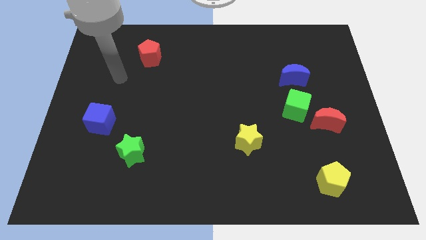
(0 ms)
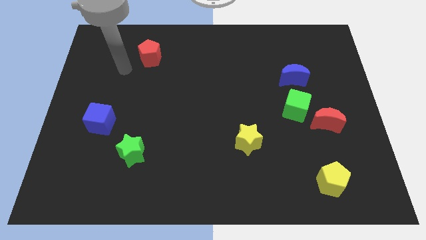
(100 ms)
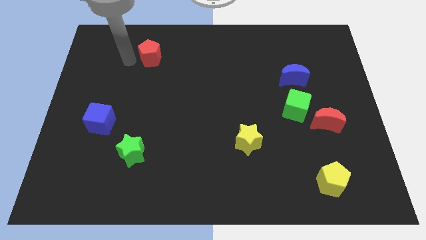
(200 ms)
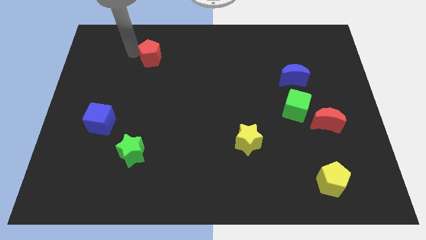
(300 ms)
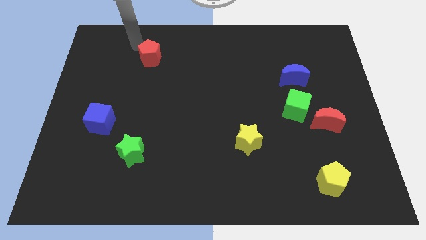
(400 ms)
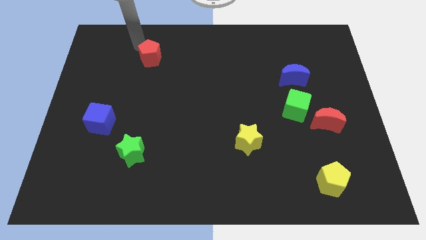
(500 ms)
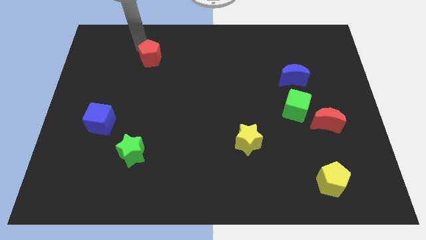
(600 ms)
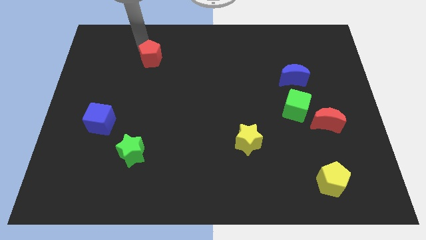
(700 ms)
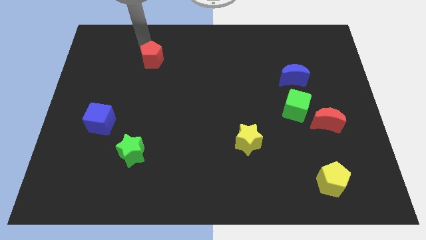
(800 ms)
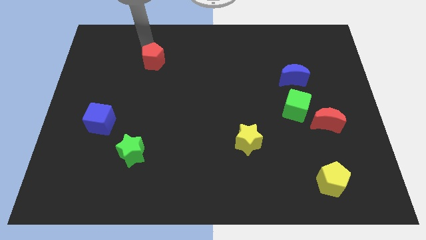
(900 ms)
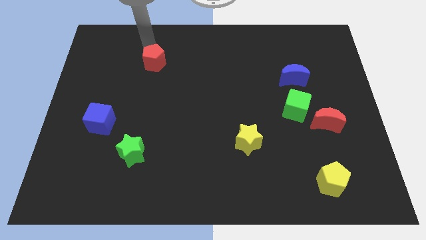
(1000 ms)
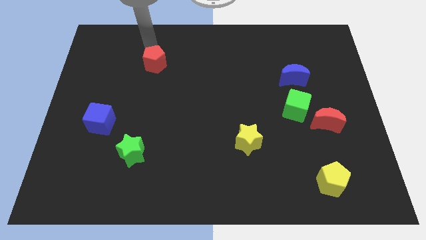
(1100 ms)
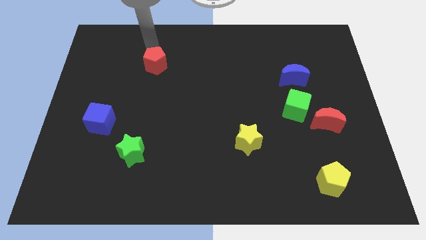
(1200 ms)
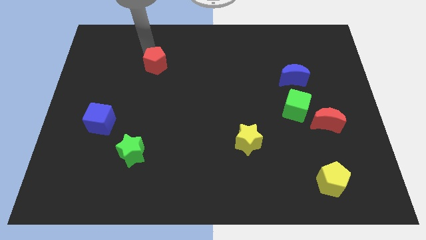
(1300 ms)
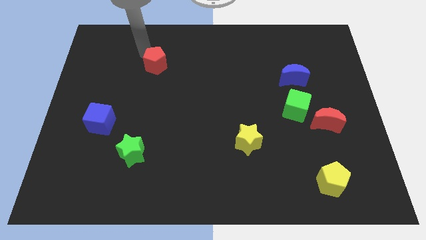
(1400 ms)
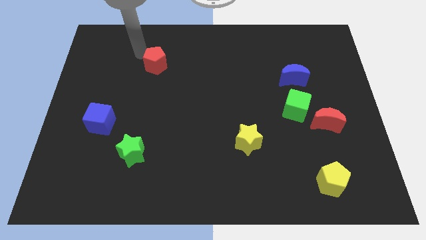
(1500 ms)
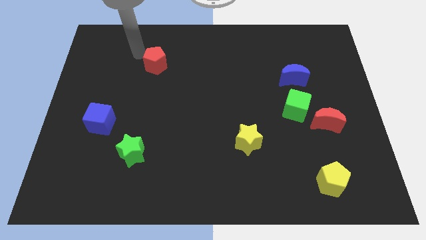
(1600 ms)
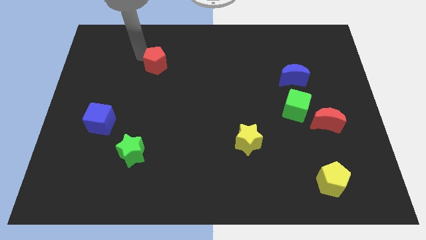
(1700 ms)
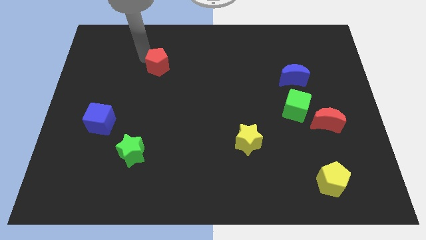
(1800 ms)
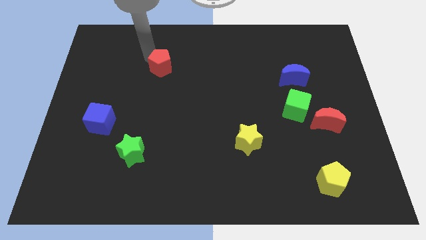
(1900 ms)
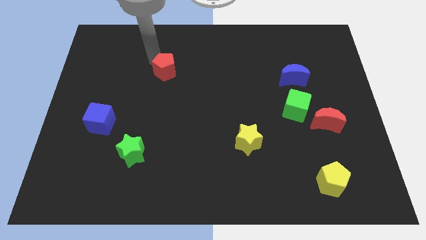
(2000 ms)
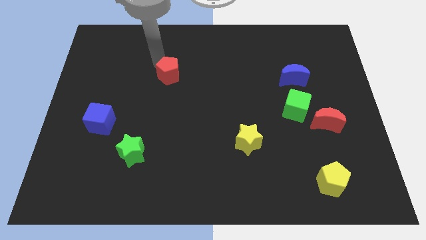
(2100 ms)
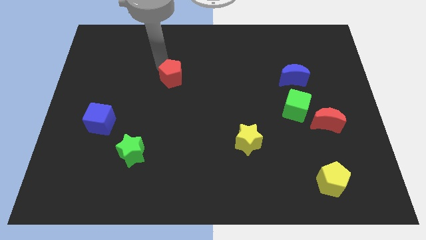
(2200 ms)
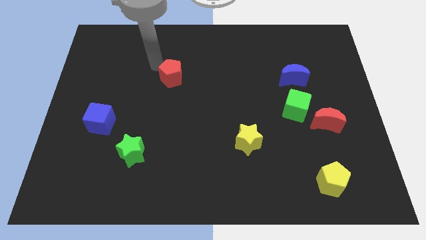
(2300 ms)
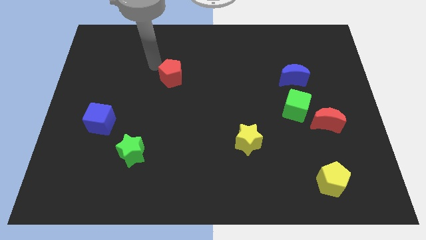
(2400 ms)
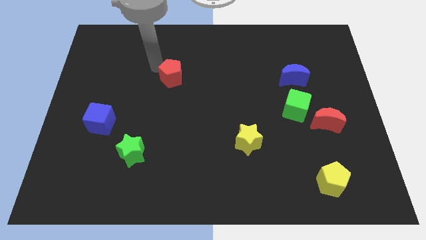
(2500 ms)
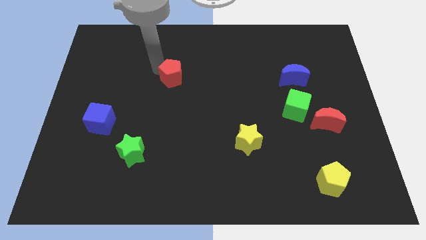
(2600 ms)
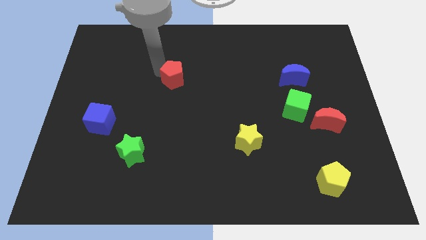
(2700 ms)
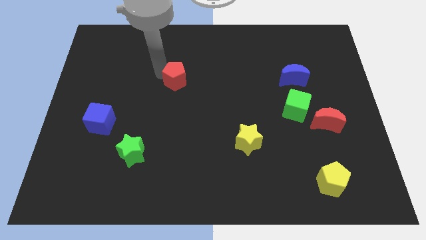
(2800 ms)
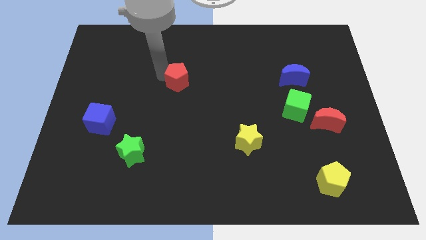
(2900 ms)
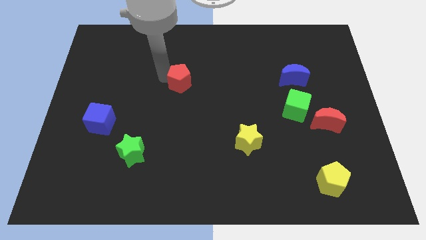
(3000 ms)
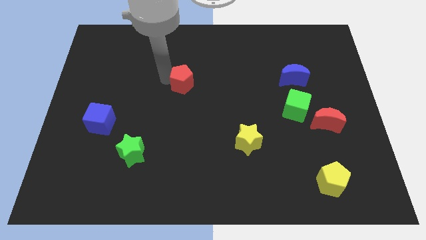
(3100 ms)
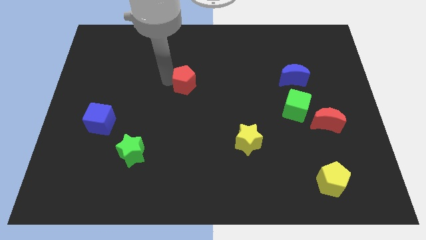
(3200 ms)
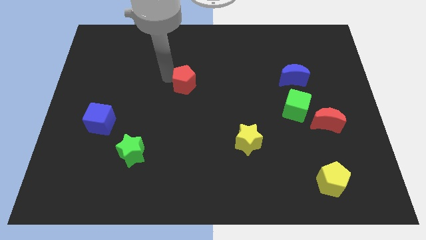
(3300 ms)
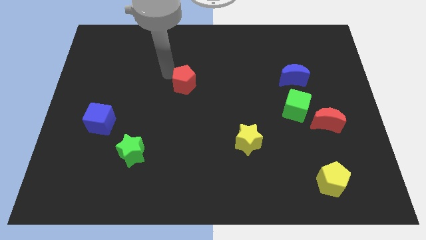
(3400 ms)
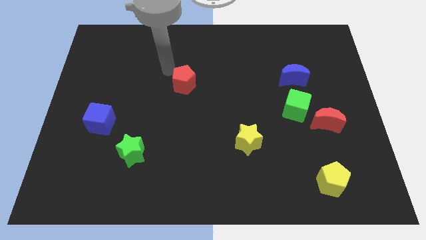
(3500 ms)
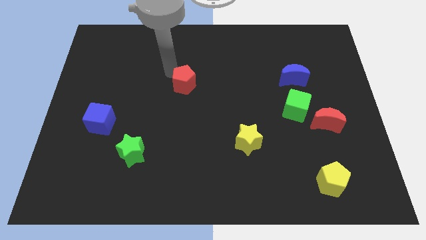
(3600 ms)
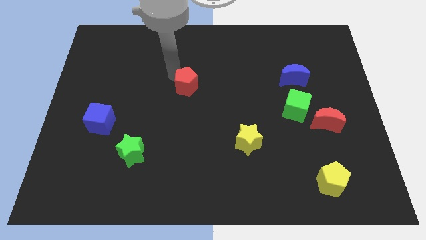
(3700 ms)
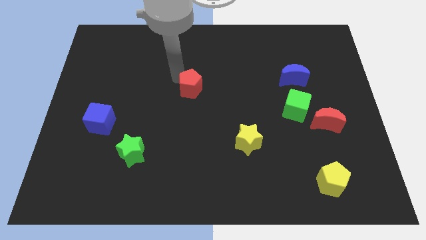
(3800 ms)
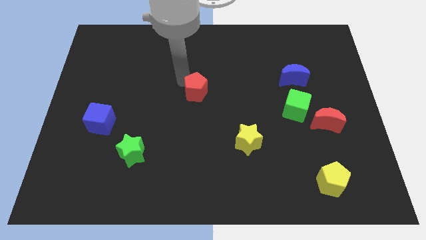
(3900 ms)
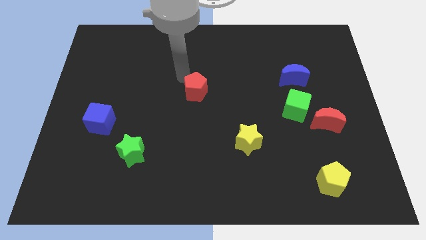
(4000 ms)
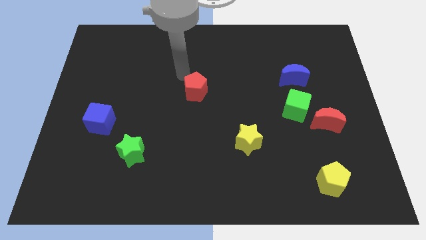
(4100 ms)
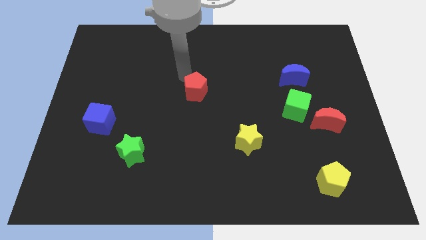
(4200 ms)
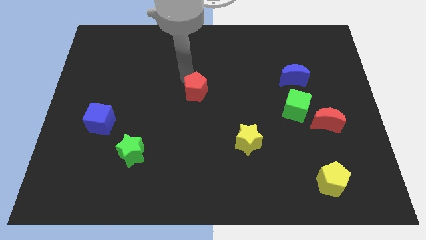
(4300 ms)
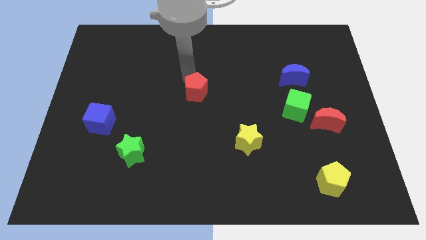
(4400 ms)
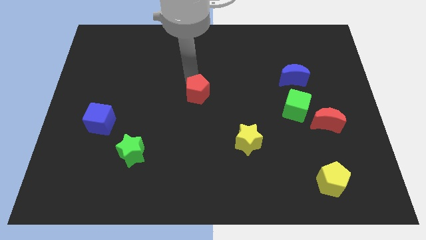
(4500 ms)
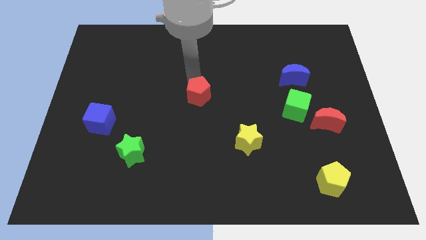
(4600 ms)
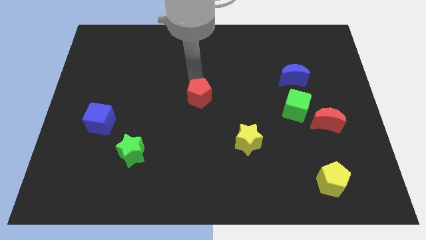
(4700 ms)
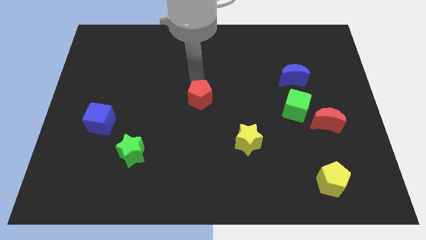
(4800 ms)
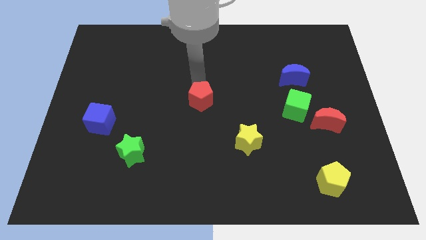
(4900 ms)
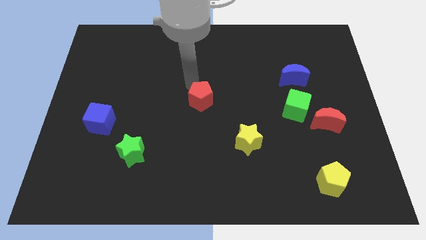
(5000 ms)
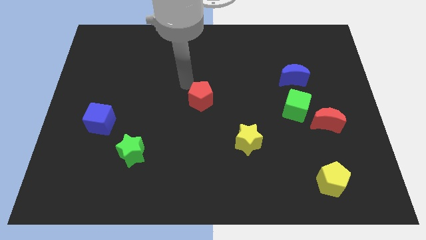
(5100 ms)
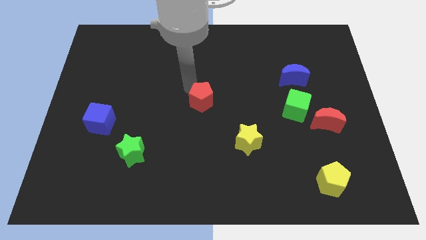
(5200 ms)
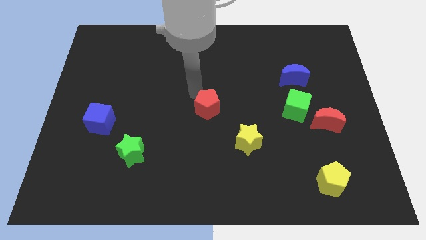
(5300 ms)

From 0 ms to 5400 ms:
put the red pentagon to the top left of the yellow star

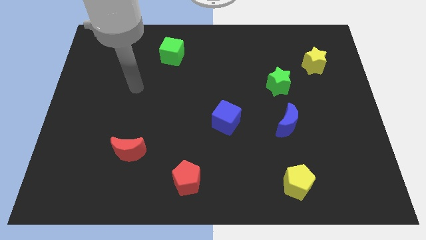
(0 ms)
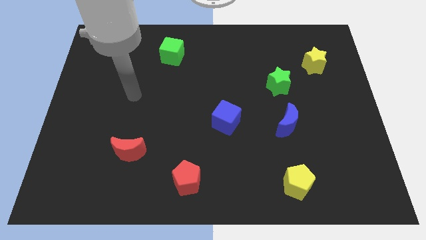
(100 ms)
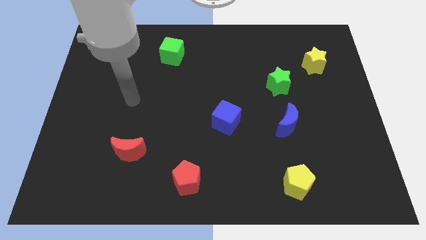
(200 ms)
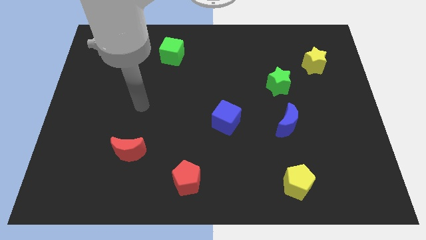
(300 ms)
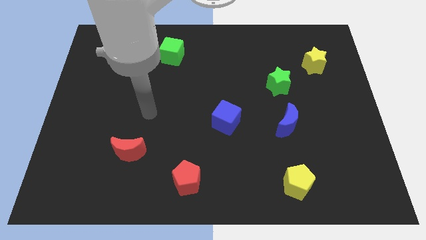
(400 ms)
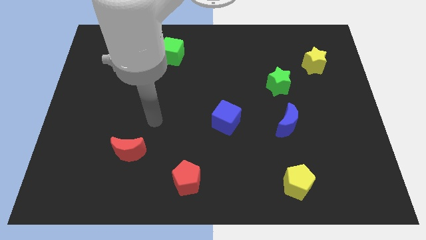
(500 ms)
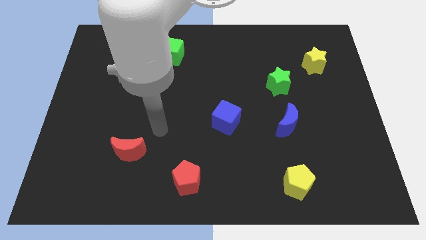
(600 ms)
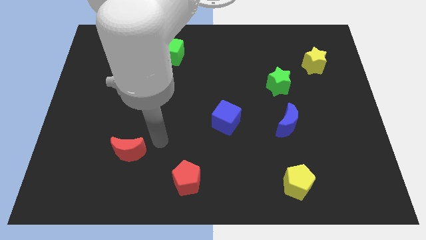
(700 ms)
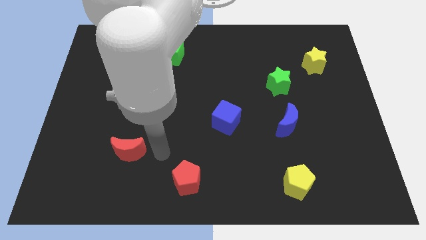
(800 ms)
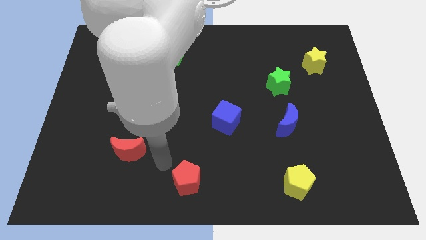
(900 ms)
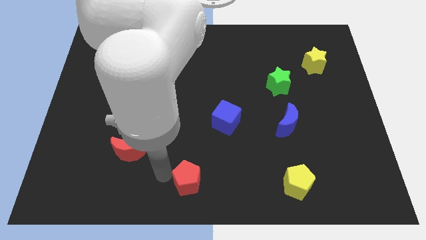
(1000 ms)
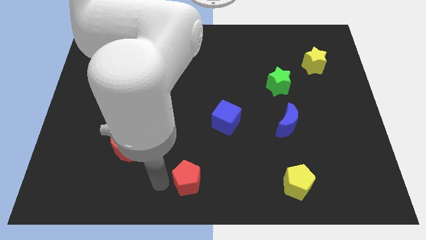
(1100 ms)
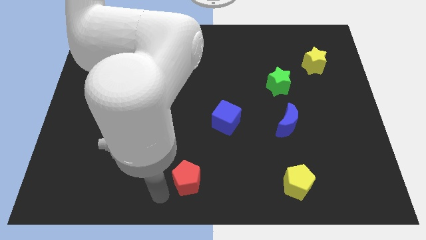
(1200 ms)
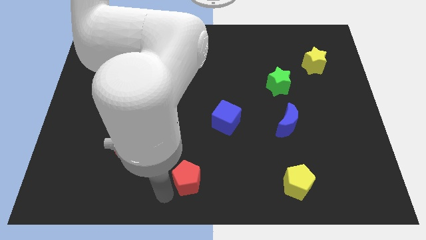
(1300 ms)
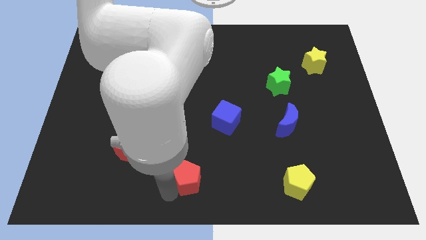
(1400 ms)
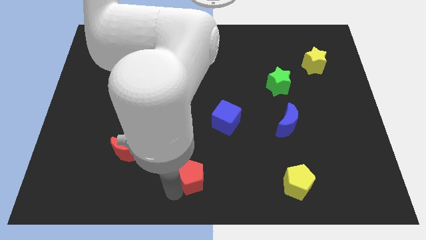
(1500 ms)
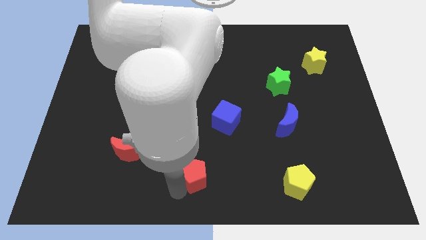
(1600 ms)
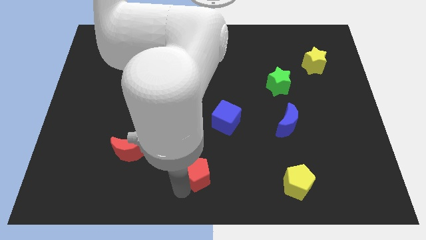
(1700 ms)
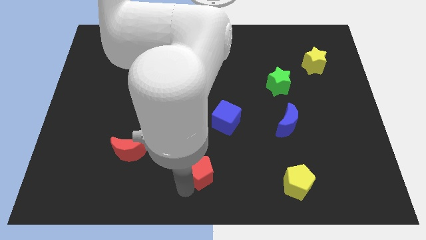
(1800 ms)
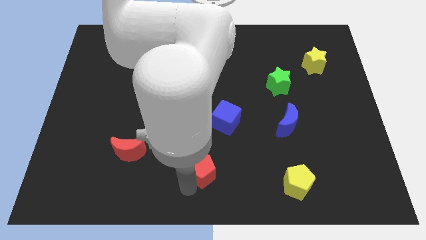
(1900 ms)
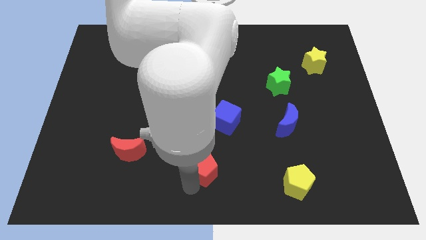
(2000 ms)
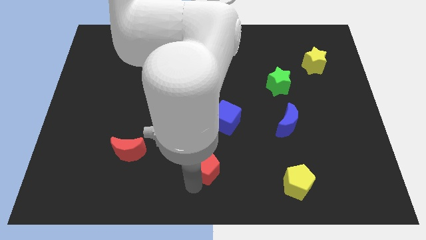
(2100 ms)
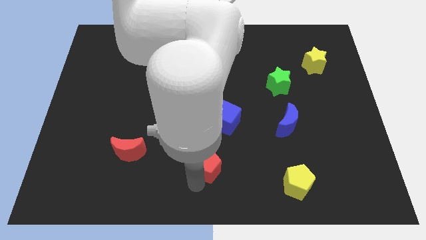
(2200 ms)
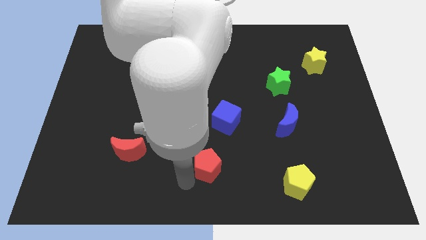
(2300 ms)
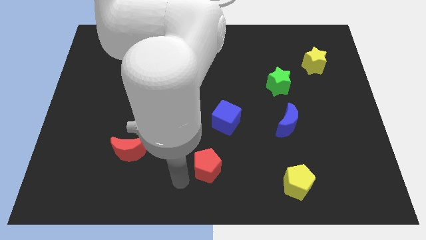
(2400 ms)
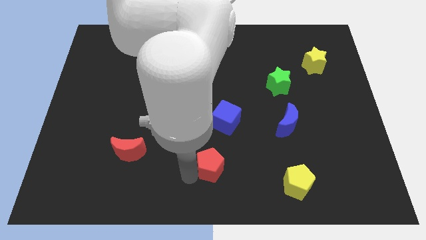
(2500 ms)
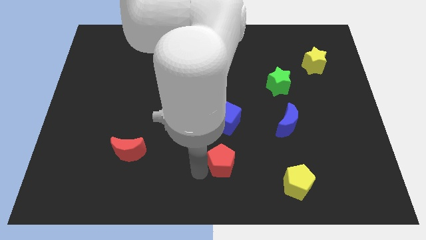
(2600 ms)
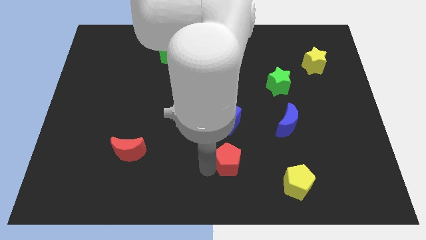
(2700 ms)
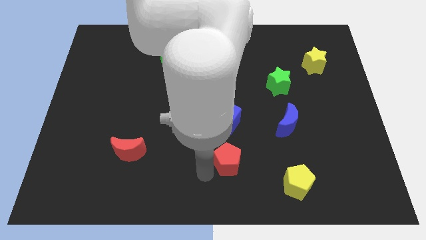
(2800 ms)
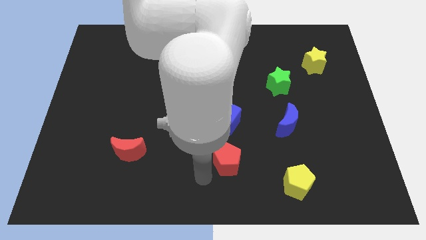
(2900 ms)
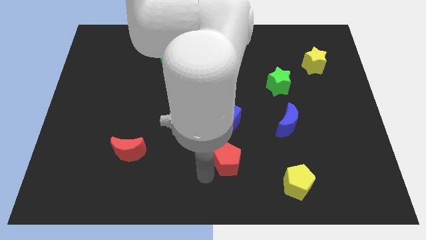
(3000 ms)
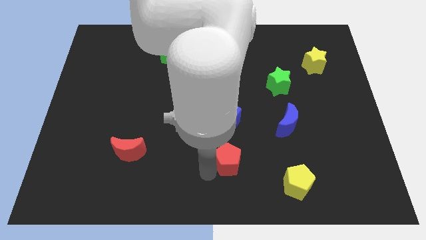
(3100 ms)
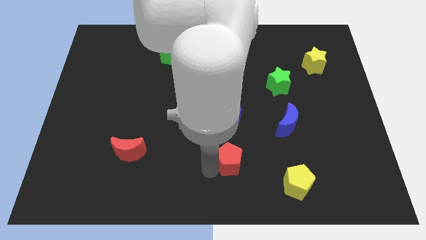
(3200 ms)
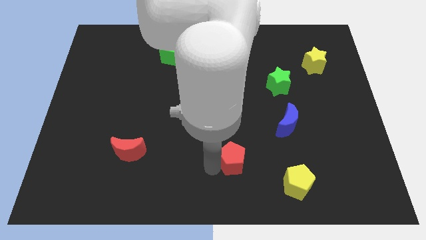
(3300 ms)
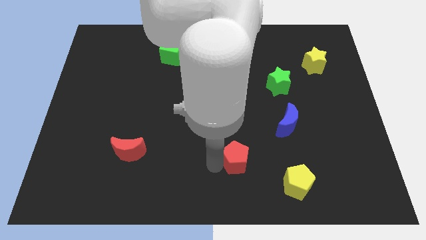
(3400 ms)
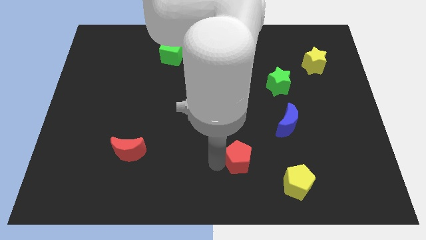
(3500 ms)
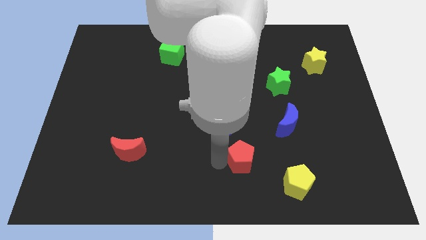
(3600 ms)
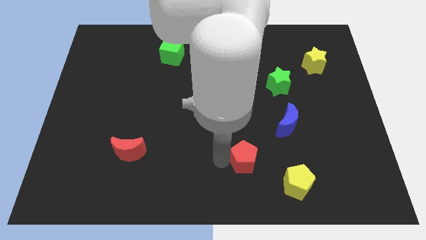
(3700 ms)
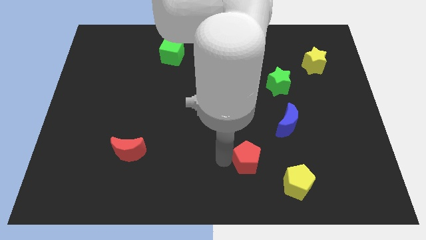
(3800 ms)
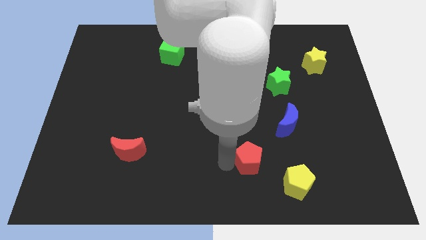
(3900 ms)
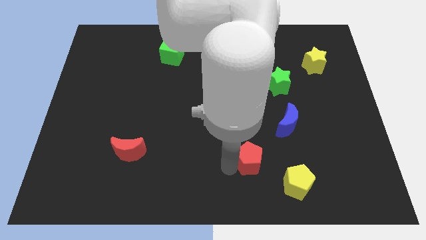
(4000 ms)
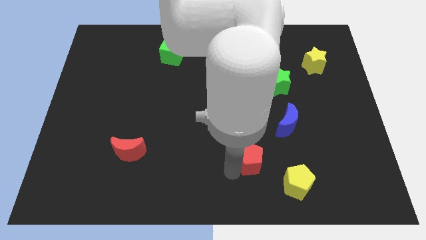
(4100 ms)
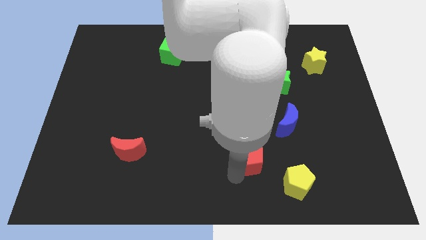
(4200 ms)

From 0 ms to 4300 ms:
slide the red pentagon to the bottom left side of the blue moon
